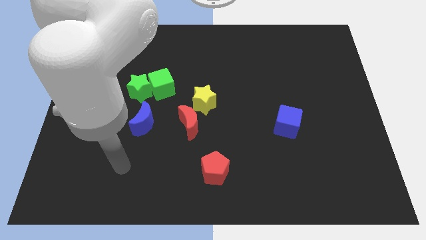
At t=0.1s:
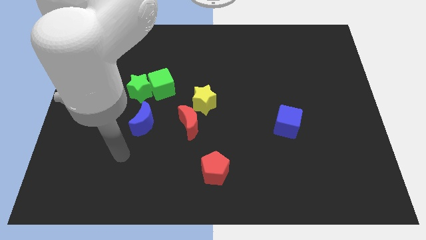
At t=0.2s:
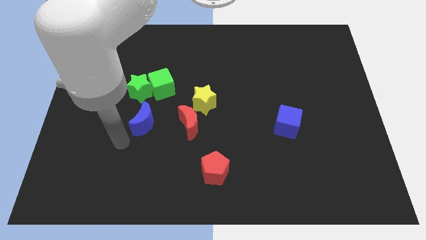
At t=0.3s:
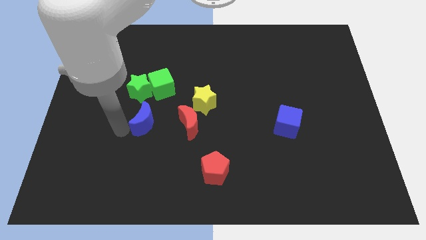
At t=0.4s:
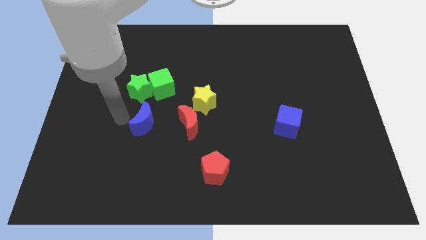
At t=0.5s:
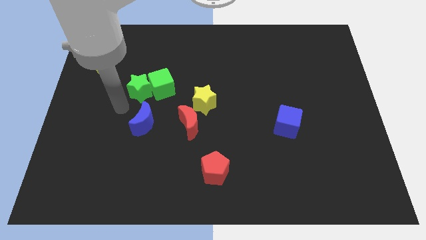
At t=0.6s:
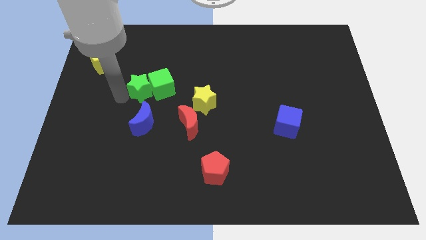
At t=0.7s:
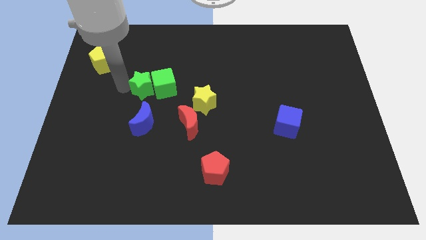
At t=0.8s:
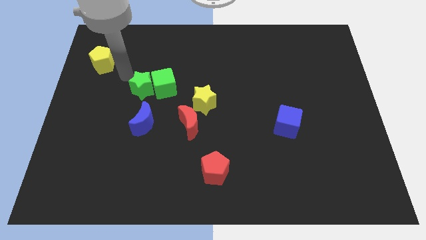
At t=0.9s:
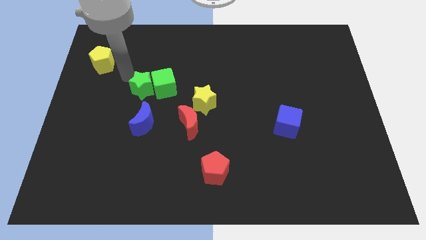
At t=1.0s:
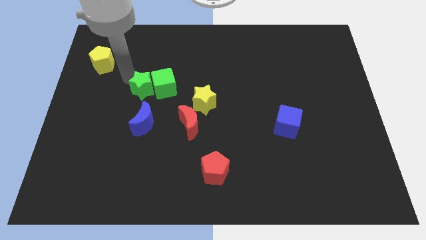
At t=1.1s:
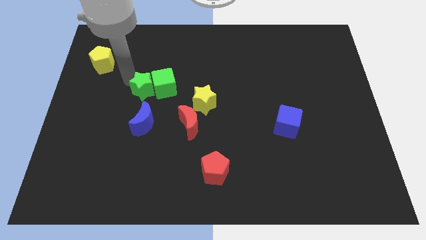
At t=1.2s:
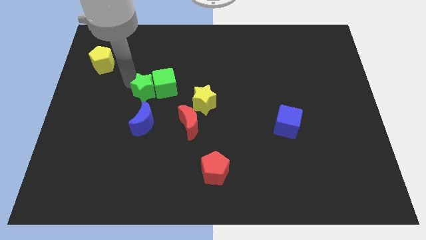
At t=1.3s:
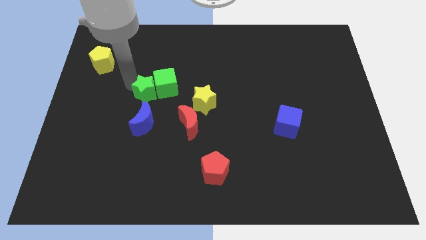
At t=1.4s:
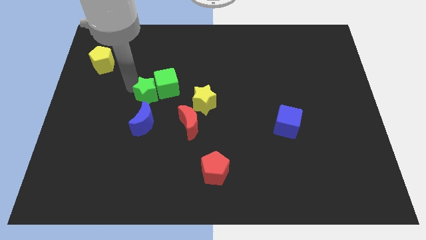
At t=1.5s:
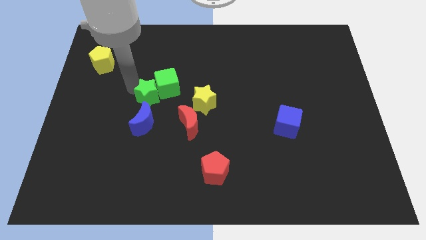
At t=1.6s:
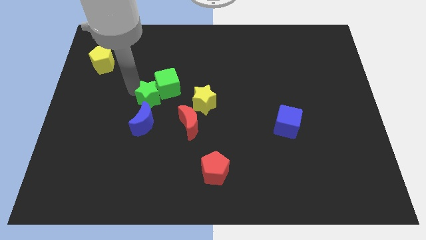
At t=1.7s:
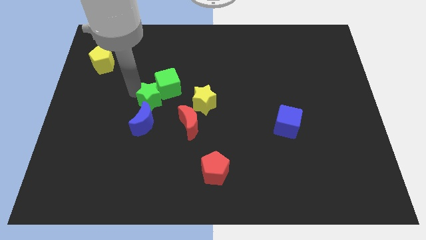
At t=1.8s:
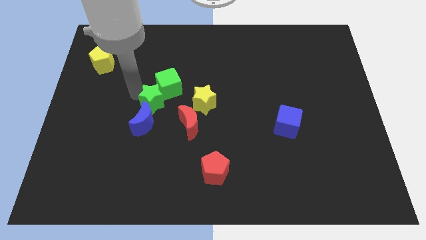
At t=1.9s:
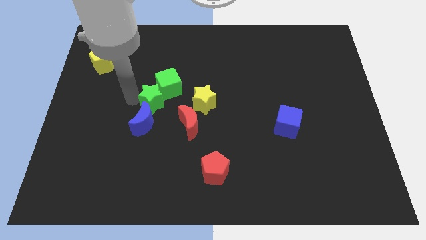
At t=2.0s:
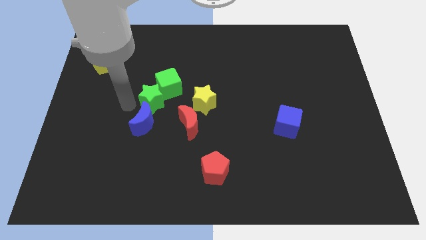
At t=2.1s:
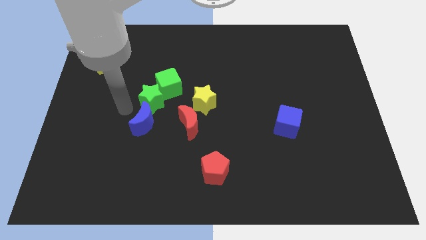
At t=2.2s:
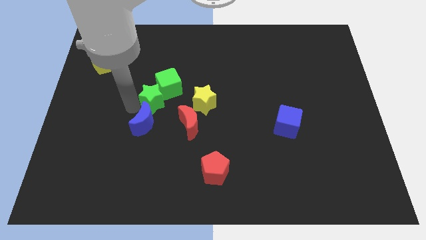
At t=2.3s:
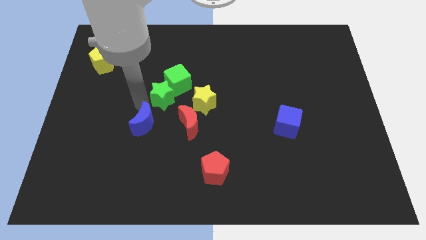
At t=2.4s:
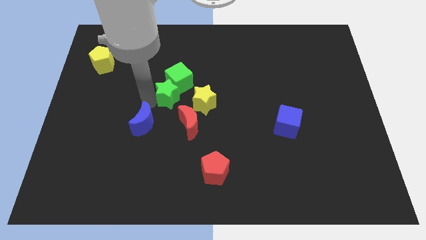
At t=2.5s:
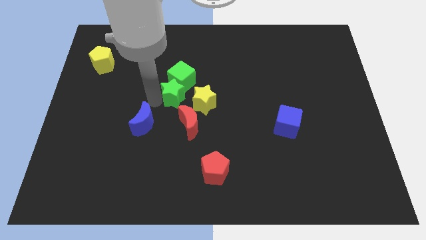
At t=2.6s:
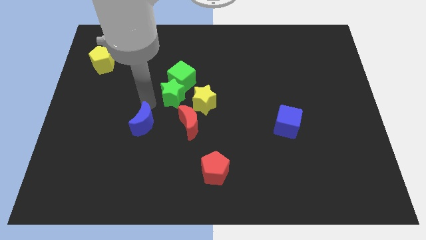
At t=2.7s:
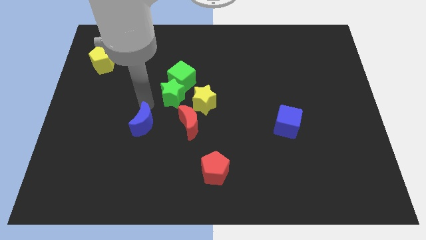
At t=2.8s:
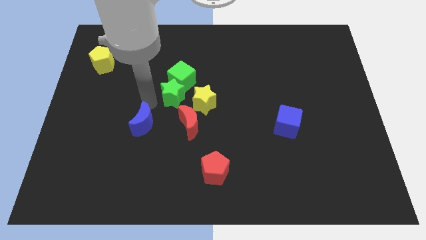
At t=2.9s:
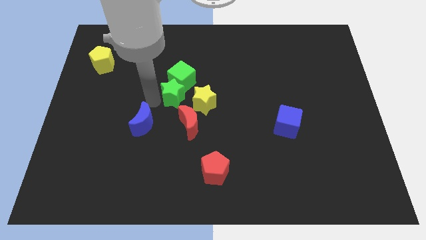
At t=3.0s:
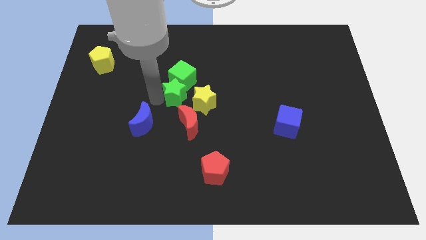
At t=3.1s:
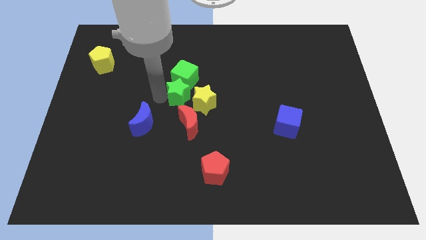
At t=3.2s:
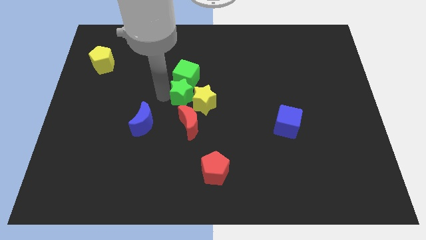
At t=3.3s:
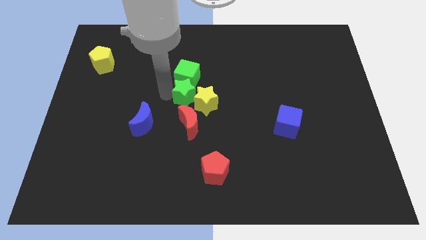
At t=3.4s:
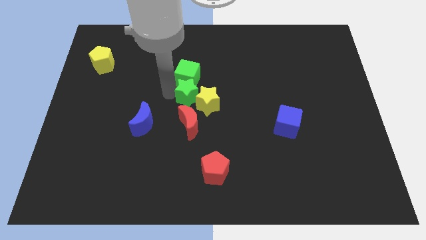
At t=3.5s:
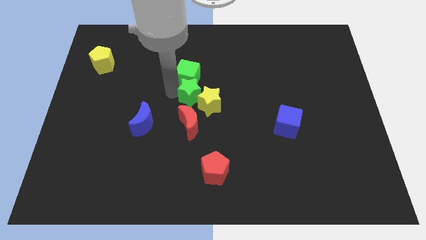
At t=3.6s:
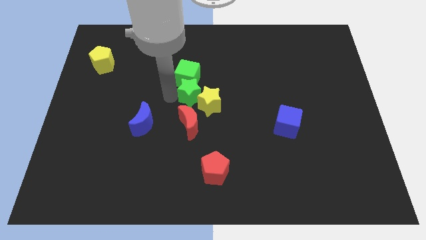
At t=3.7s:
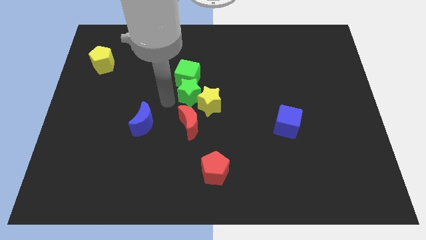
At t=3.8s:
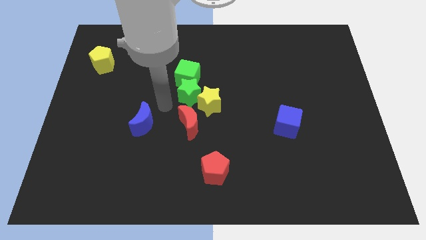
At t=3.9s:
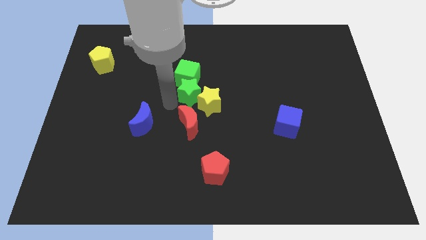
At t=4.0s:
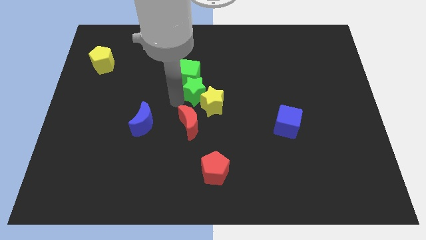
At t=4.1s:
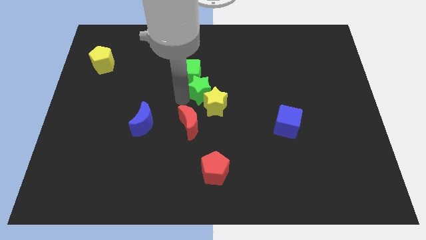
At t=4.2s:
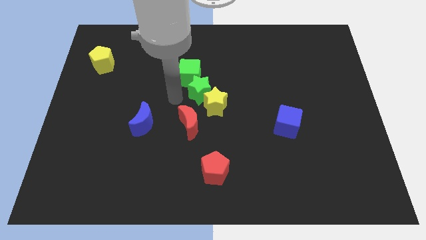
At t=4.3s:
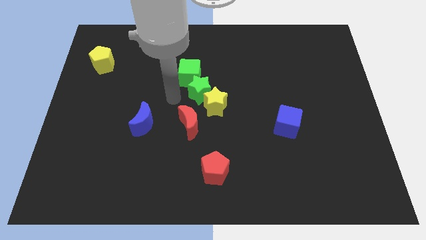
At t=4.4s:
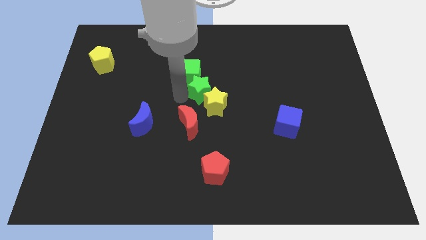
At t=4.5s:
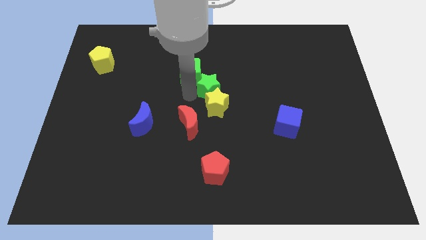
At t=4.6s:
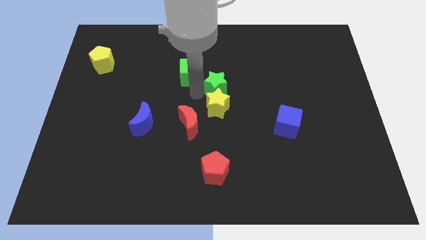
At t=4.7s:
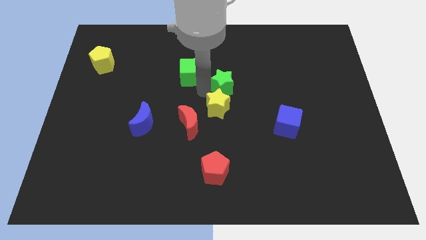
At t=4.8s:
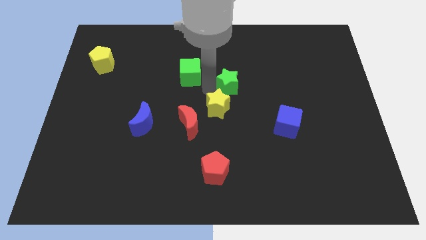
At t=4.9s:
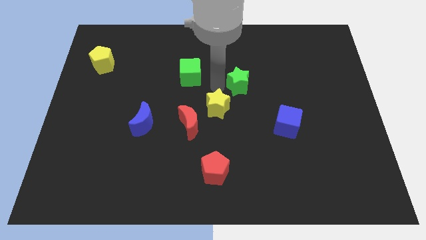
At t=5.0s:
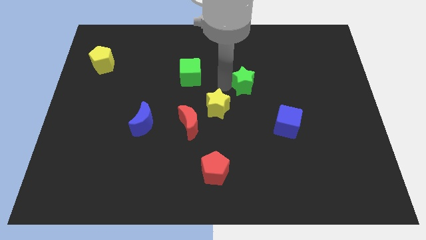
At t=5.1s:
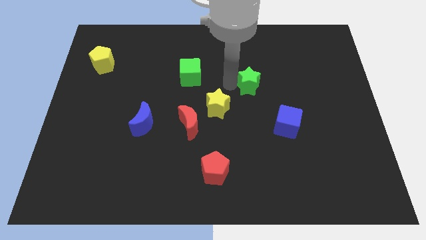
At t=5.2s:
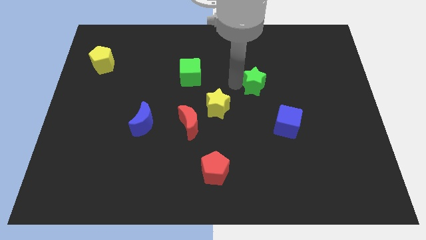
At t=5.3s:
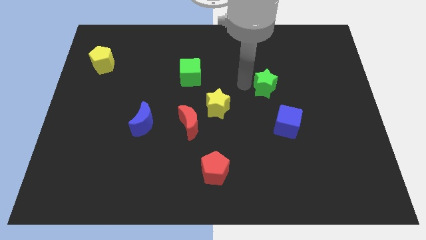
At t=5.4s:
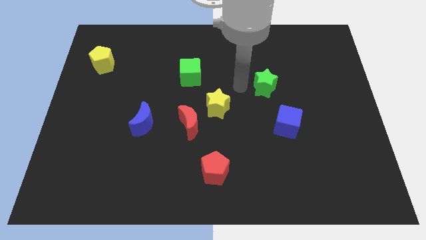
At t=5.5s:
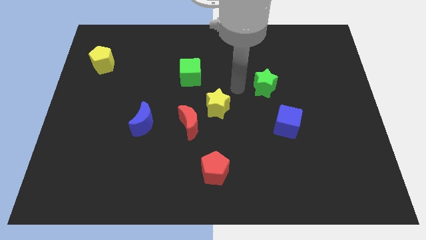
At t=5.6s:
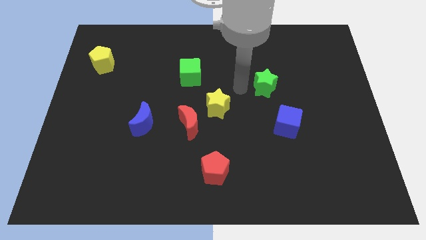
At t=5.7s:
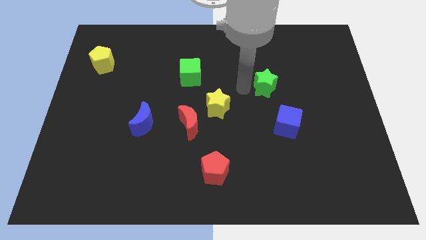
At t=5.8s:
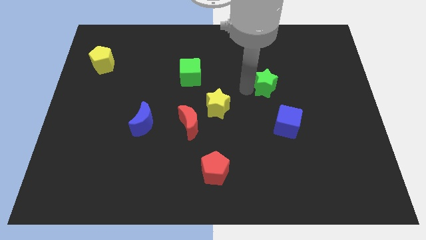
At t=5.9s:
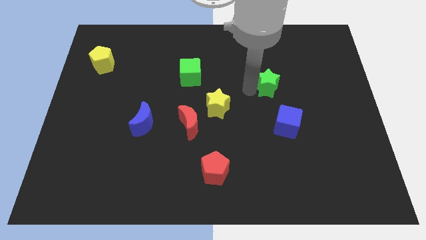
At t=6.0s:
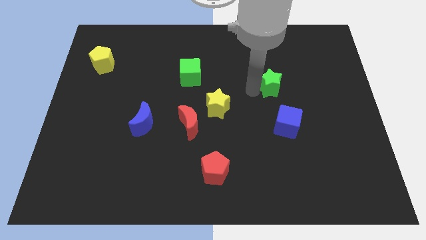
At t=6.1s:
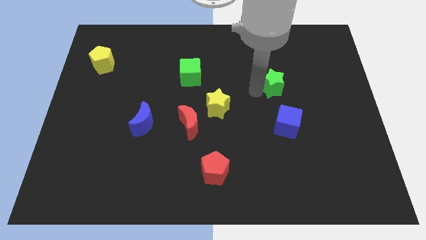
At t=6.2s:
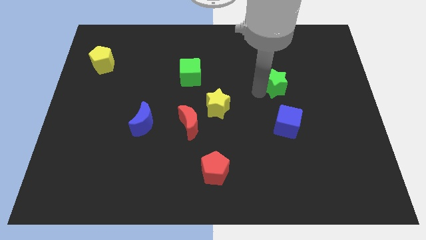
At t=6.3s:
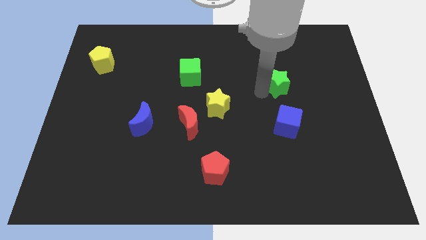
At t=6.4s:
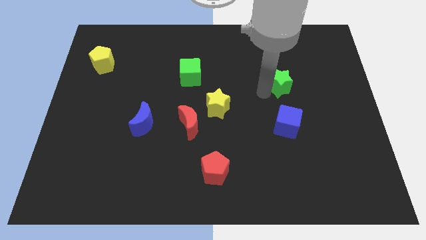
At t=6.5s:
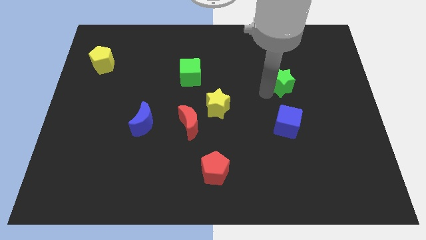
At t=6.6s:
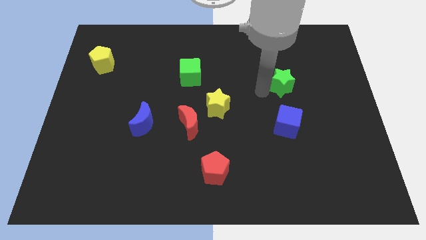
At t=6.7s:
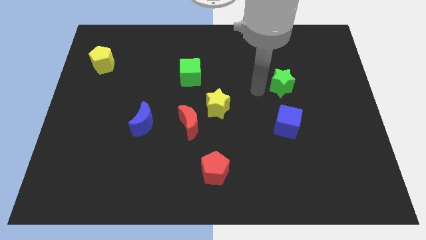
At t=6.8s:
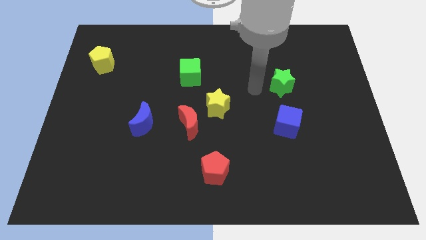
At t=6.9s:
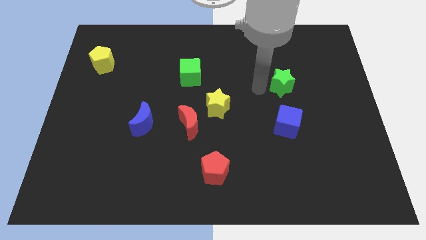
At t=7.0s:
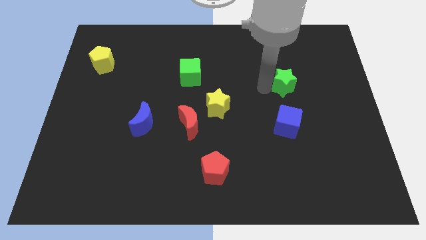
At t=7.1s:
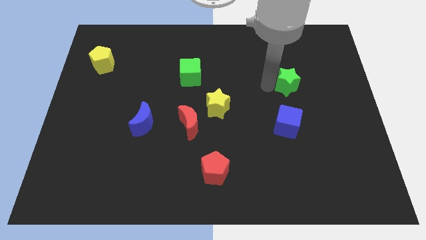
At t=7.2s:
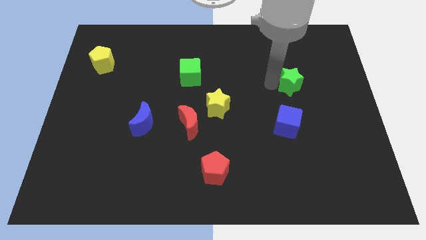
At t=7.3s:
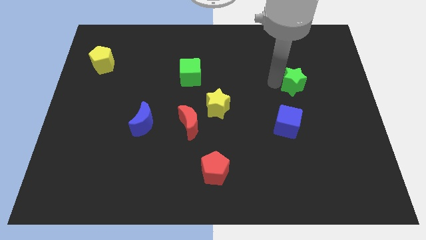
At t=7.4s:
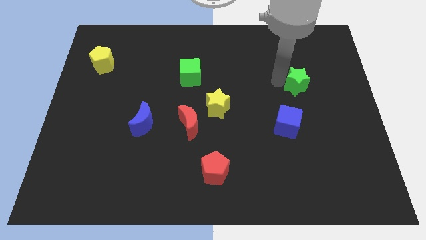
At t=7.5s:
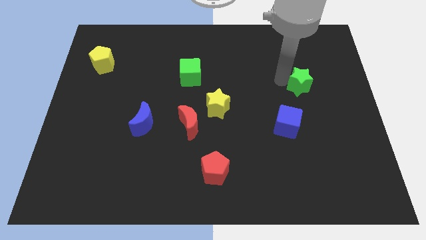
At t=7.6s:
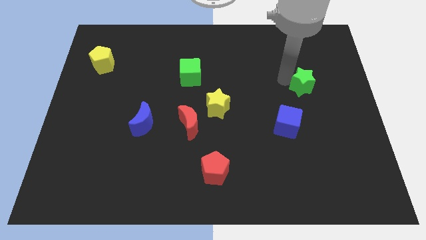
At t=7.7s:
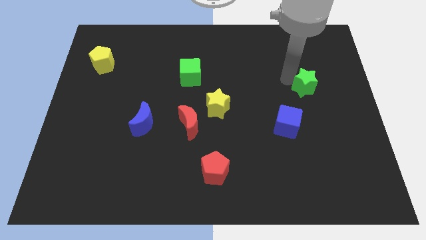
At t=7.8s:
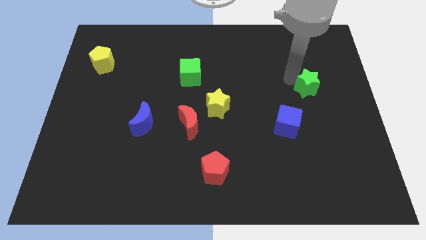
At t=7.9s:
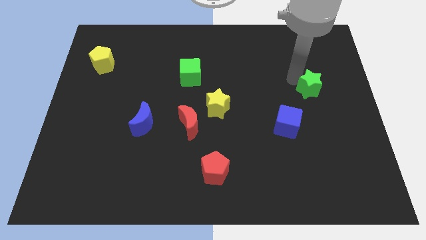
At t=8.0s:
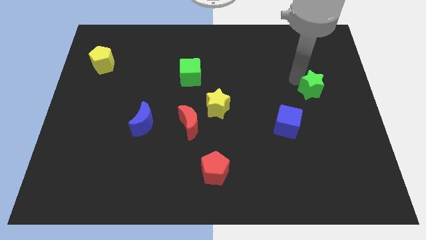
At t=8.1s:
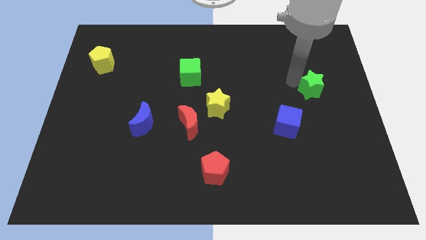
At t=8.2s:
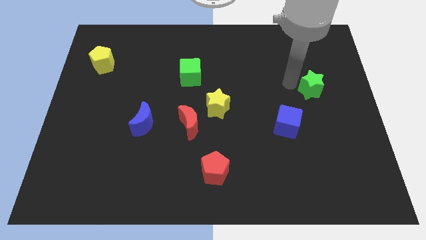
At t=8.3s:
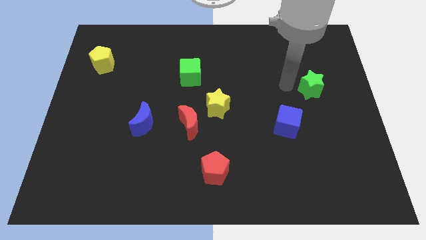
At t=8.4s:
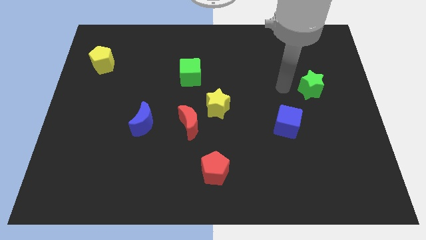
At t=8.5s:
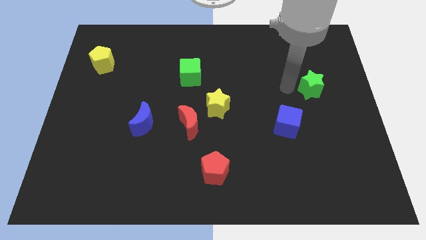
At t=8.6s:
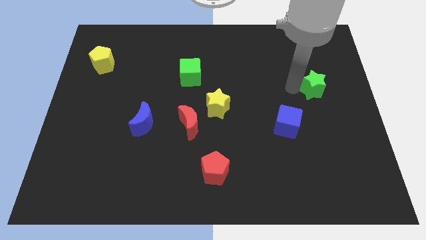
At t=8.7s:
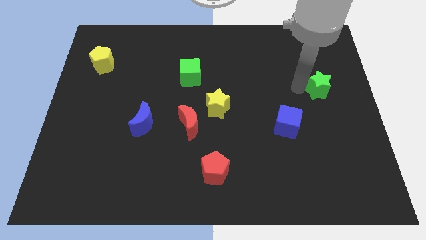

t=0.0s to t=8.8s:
put the green star to the center right
